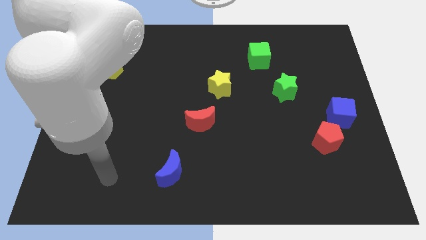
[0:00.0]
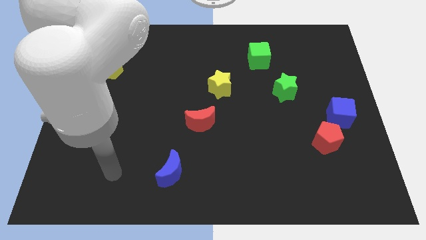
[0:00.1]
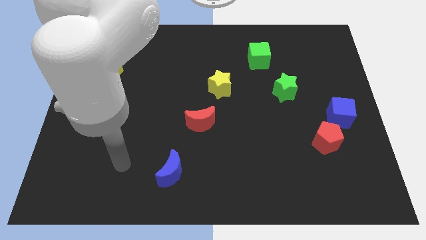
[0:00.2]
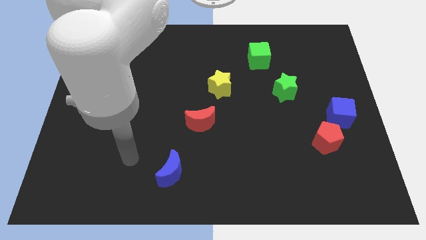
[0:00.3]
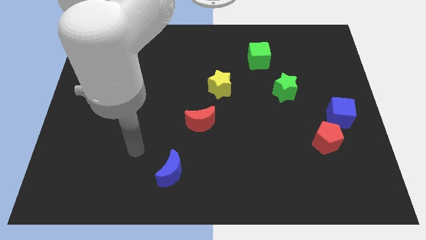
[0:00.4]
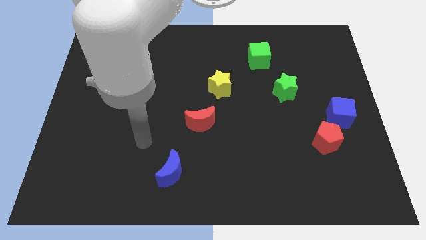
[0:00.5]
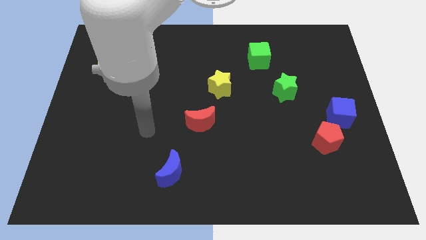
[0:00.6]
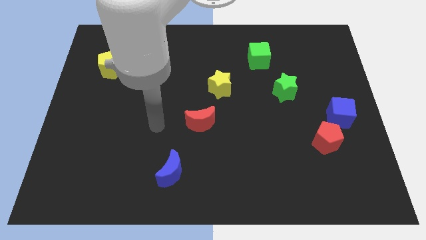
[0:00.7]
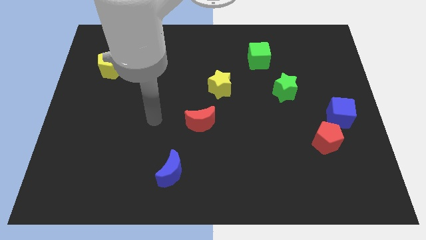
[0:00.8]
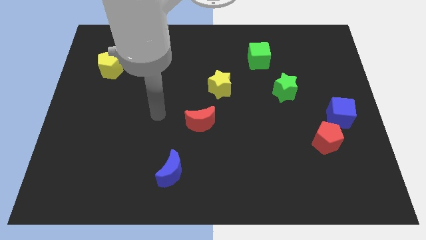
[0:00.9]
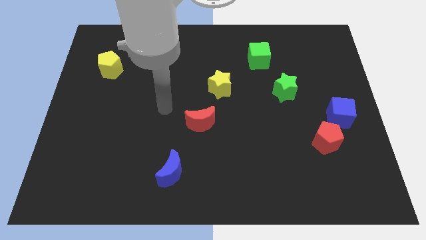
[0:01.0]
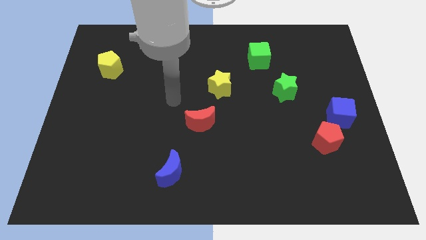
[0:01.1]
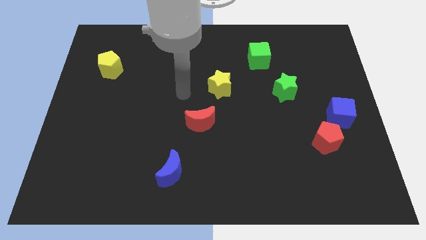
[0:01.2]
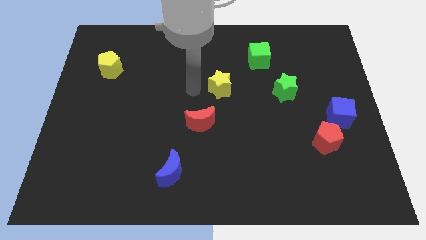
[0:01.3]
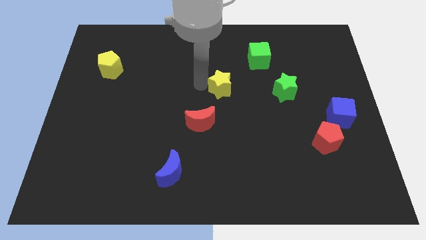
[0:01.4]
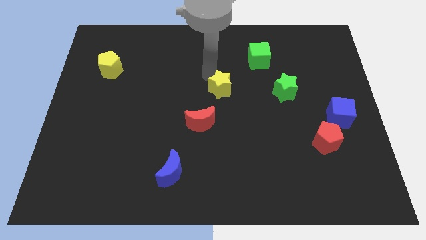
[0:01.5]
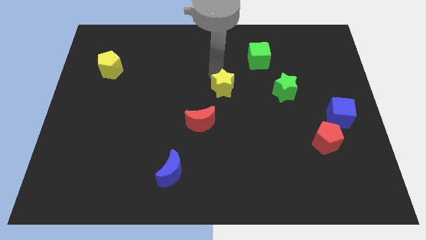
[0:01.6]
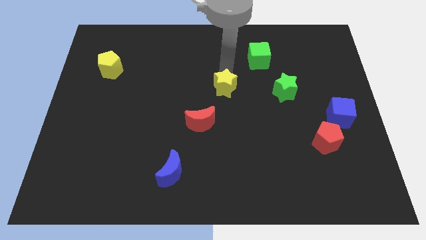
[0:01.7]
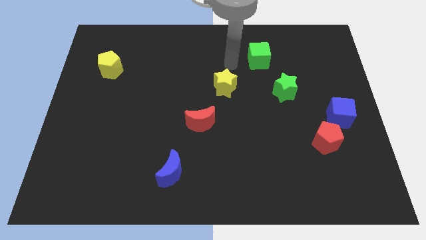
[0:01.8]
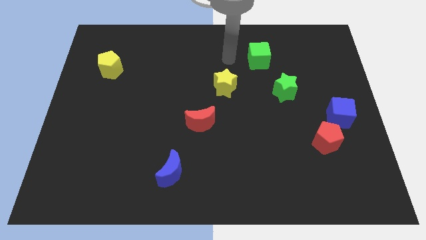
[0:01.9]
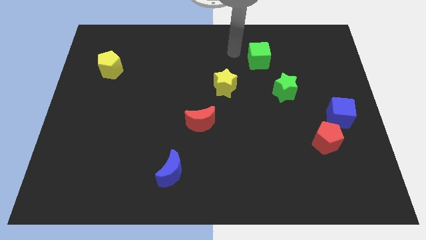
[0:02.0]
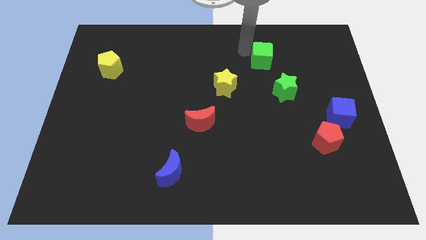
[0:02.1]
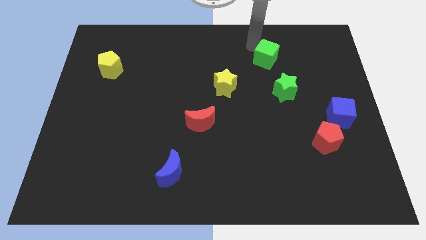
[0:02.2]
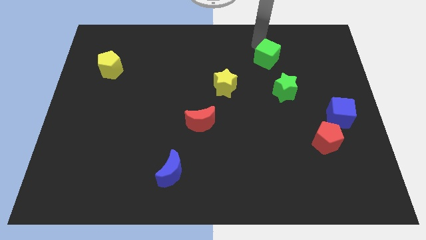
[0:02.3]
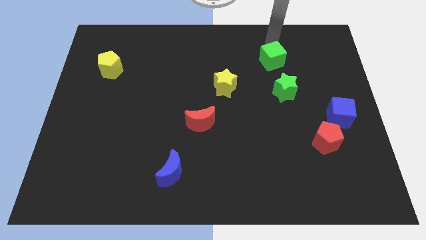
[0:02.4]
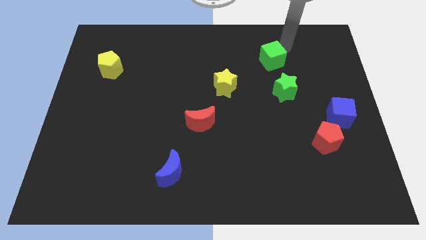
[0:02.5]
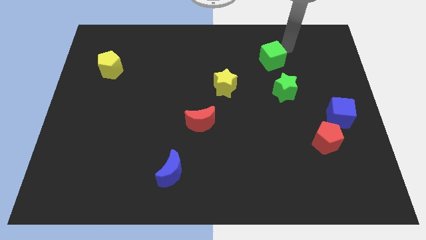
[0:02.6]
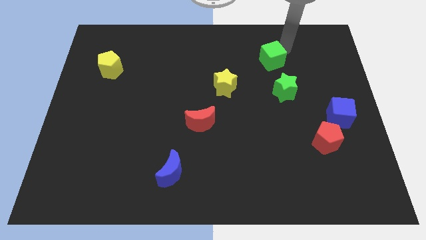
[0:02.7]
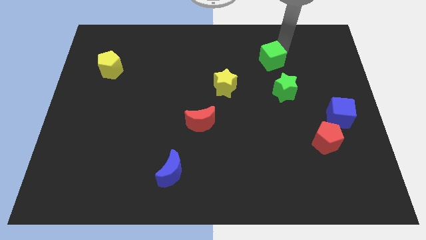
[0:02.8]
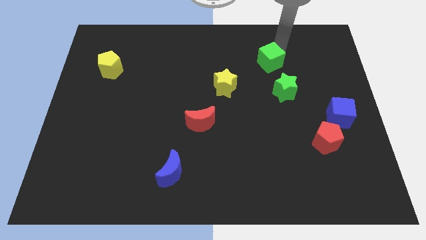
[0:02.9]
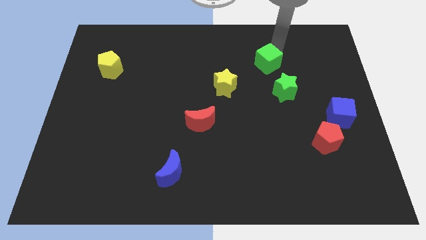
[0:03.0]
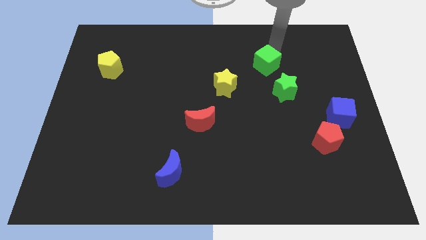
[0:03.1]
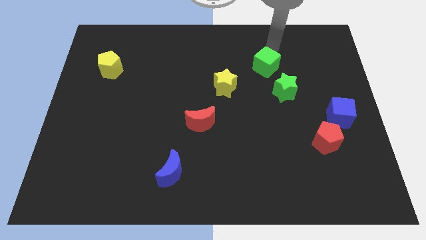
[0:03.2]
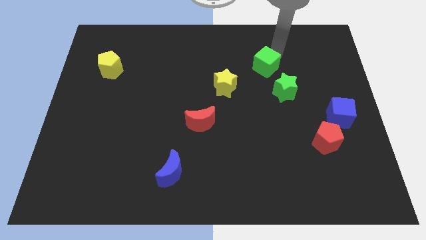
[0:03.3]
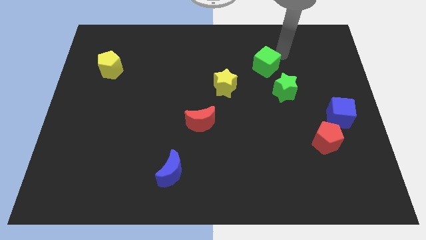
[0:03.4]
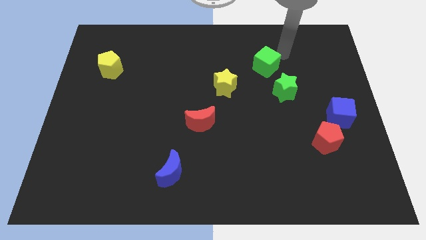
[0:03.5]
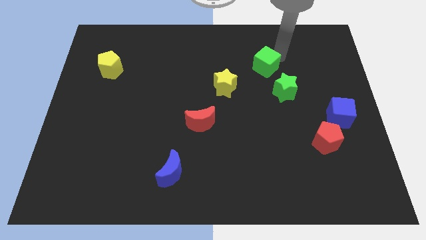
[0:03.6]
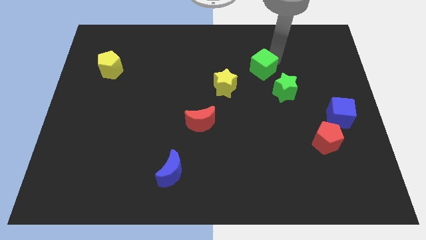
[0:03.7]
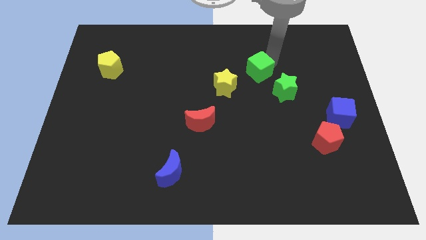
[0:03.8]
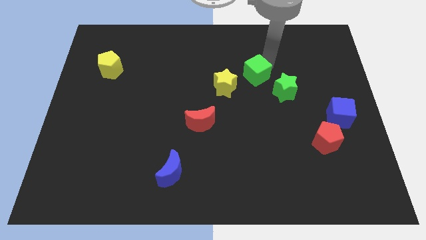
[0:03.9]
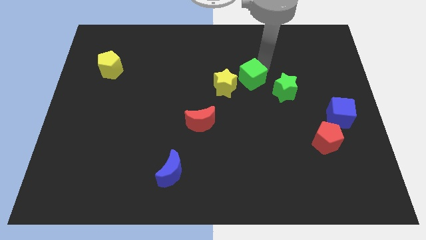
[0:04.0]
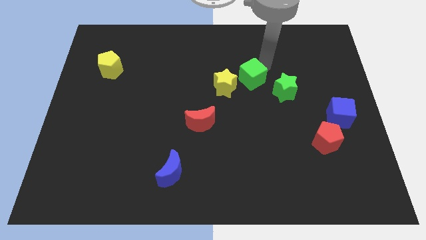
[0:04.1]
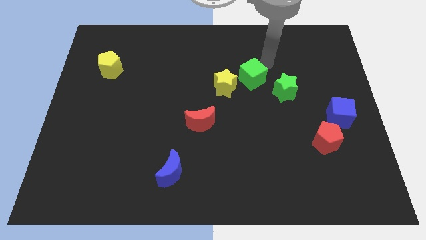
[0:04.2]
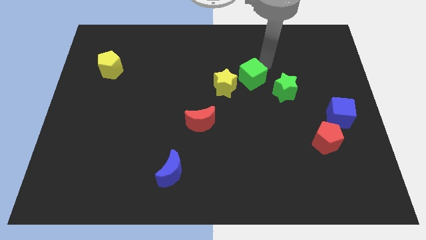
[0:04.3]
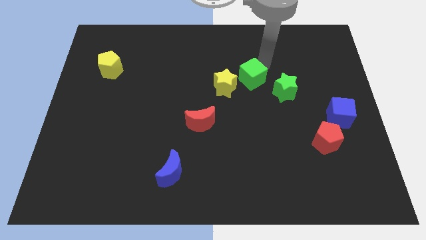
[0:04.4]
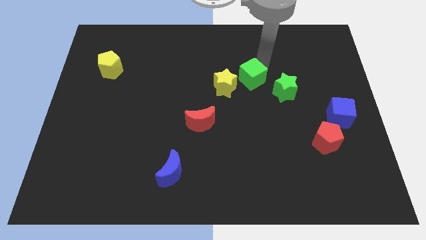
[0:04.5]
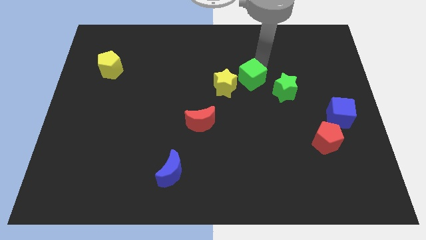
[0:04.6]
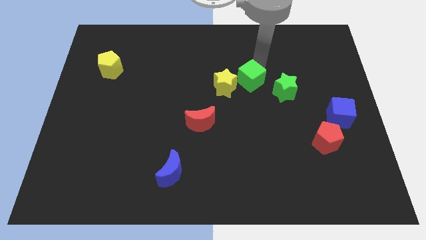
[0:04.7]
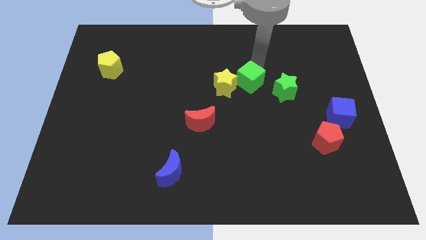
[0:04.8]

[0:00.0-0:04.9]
push the green cube slightly down and left diagonally

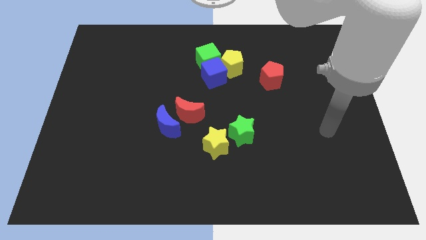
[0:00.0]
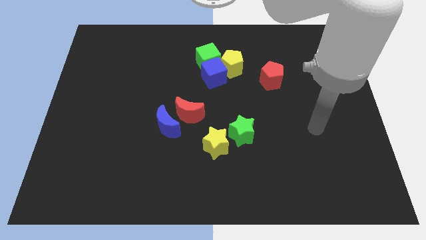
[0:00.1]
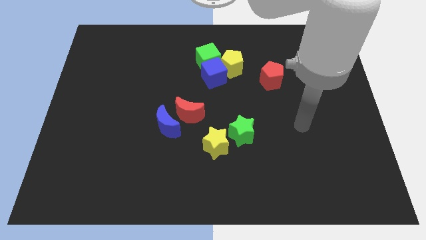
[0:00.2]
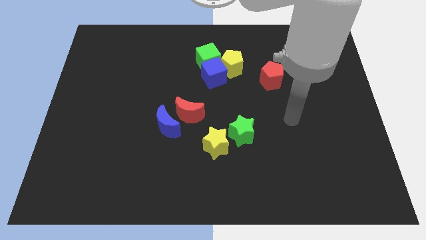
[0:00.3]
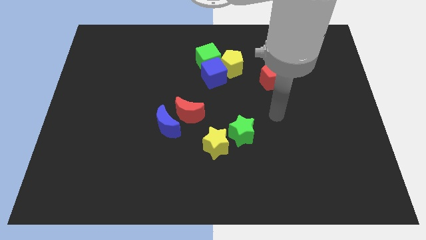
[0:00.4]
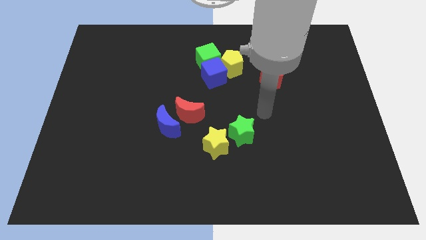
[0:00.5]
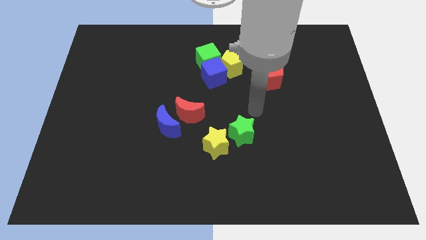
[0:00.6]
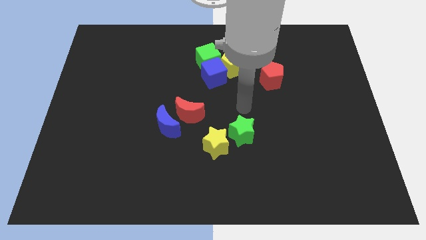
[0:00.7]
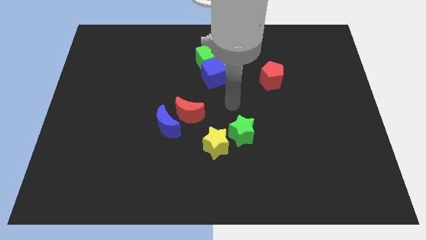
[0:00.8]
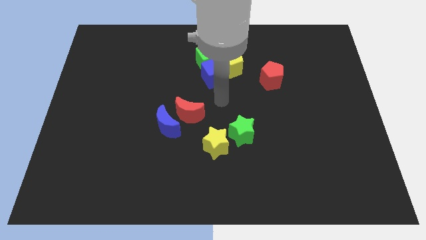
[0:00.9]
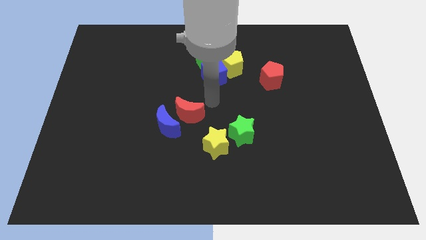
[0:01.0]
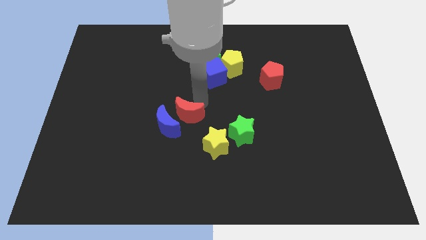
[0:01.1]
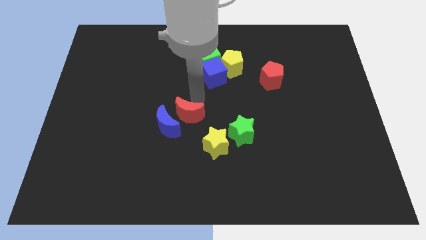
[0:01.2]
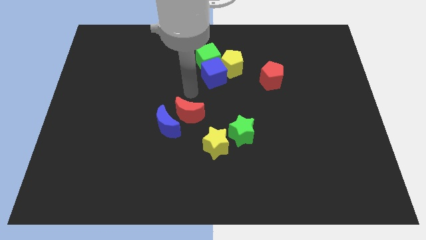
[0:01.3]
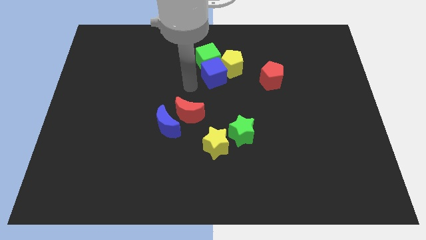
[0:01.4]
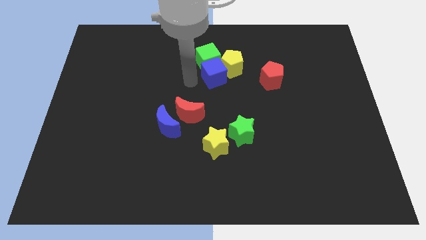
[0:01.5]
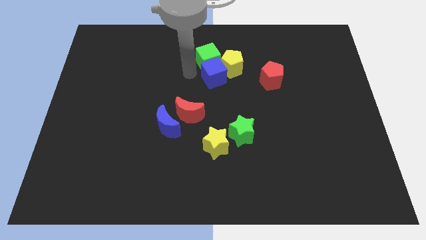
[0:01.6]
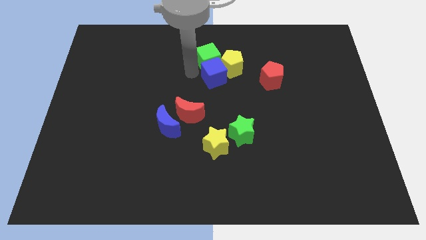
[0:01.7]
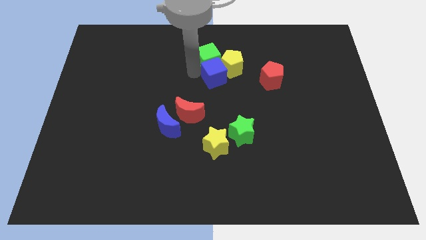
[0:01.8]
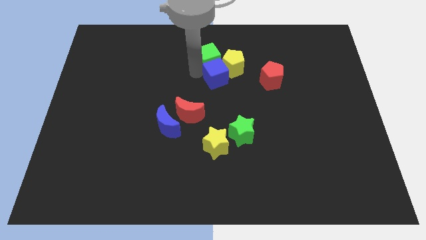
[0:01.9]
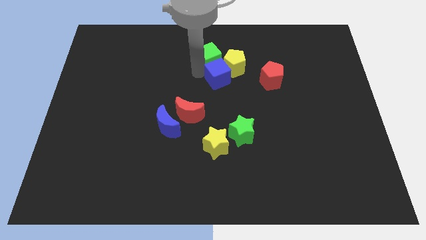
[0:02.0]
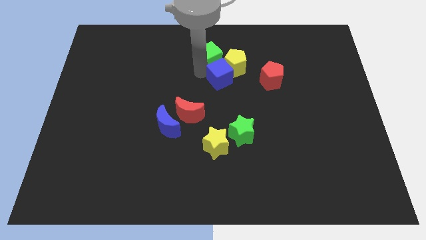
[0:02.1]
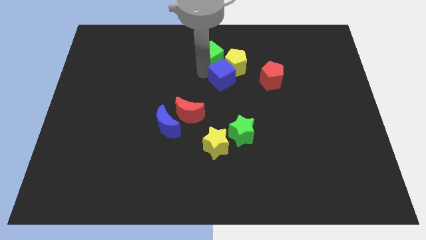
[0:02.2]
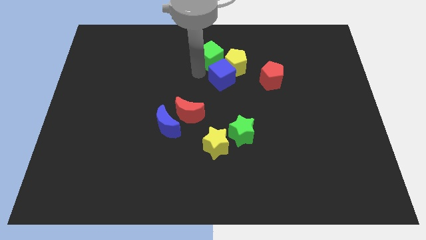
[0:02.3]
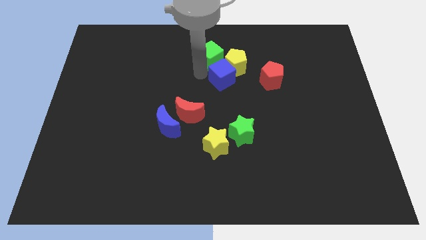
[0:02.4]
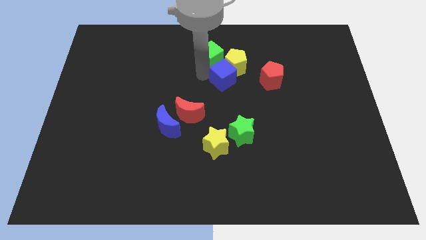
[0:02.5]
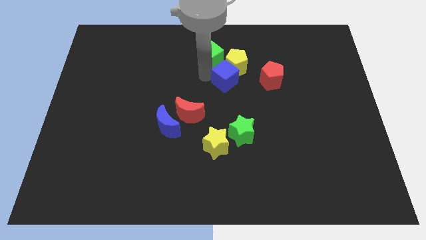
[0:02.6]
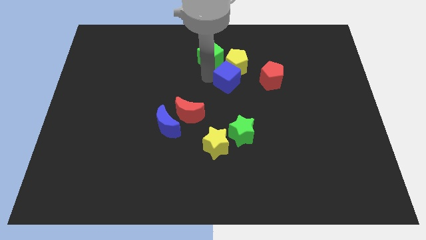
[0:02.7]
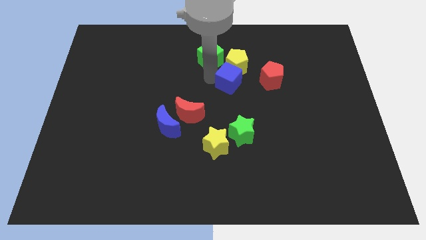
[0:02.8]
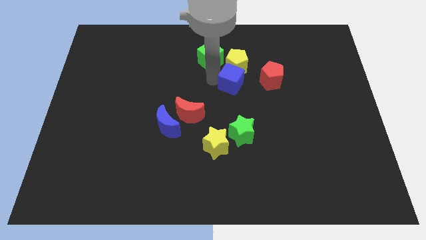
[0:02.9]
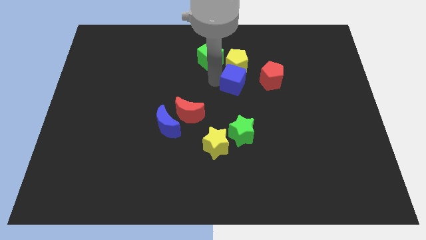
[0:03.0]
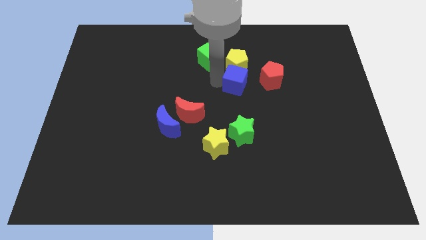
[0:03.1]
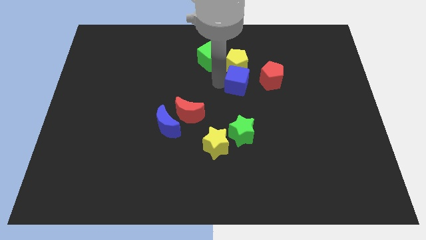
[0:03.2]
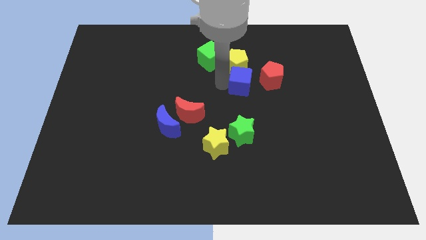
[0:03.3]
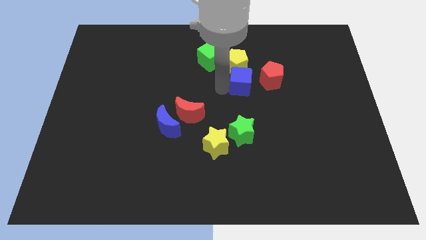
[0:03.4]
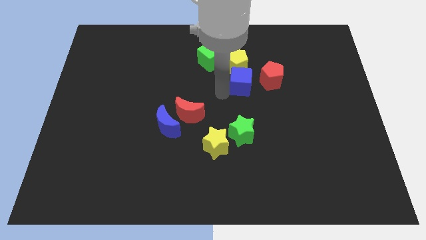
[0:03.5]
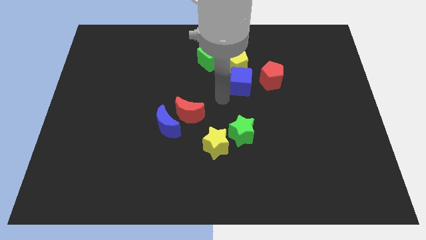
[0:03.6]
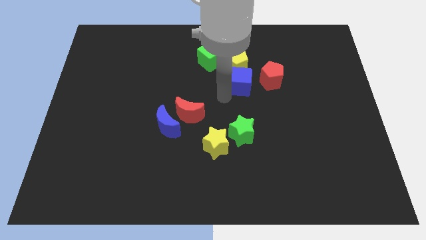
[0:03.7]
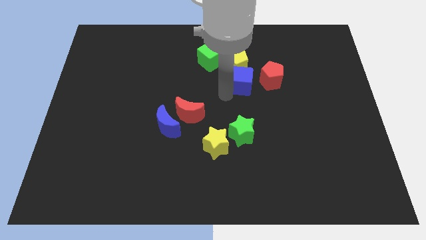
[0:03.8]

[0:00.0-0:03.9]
move the blue cube to the right slightly
